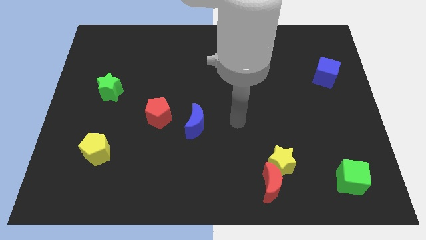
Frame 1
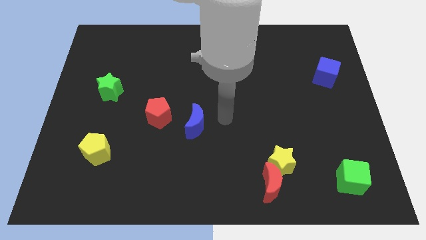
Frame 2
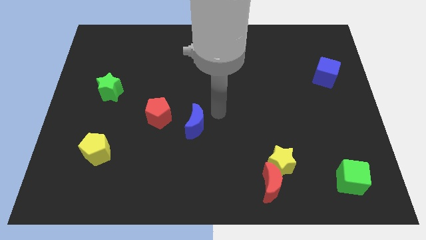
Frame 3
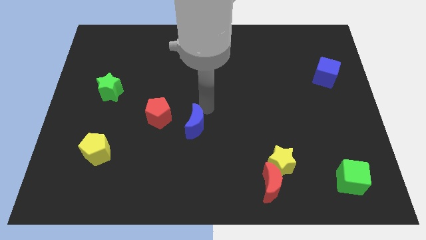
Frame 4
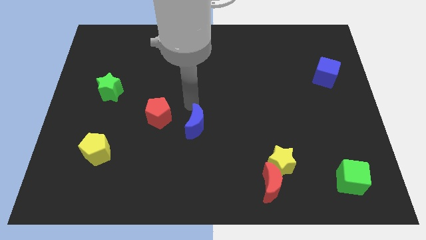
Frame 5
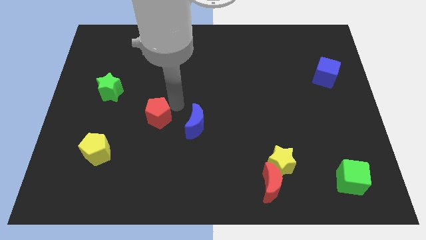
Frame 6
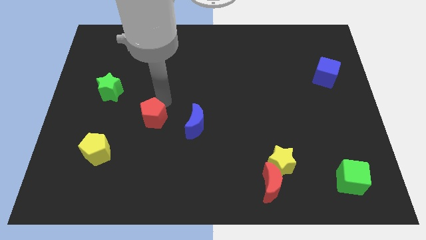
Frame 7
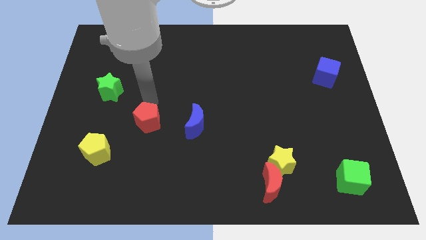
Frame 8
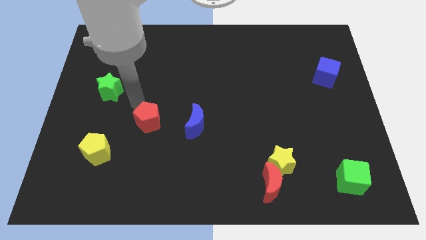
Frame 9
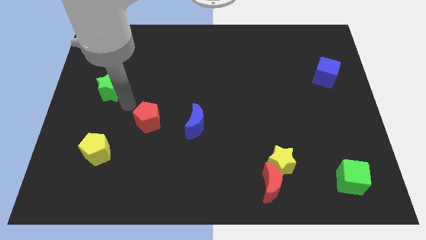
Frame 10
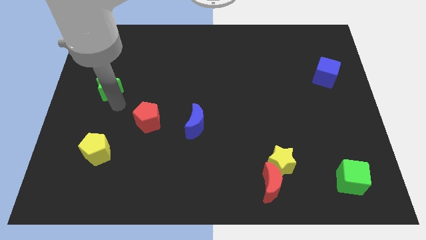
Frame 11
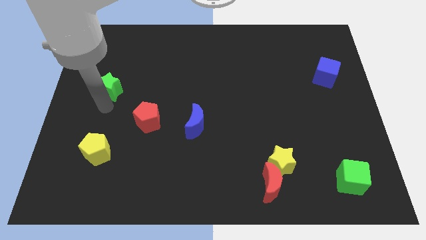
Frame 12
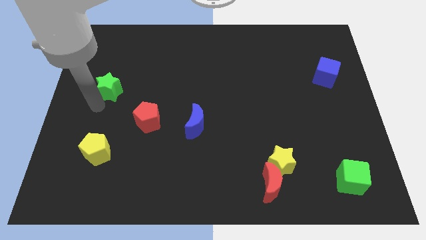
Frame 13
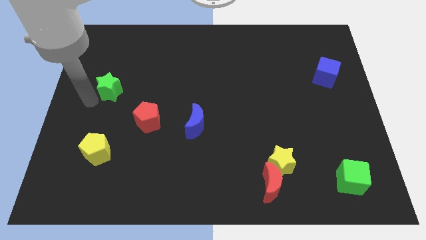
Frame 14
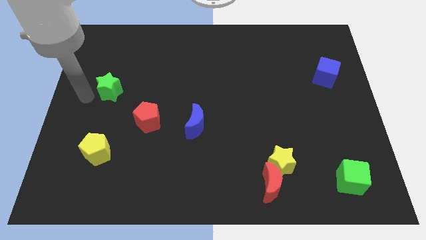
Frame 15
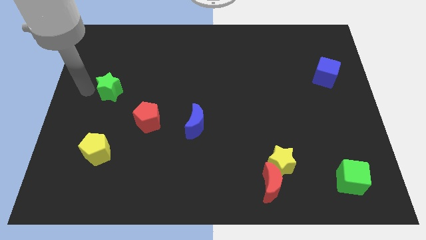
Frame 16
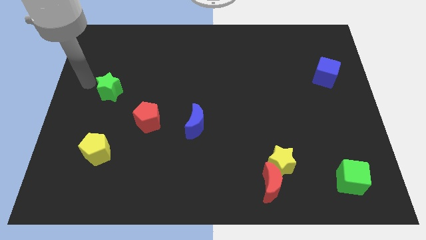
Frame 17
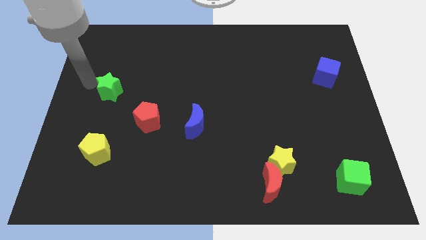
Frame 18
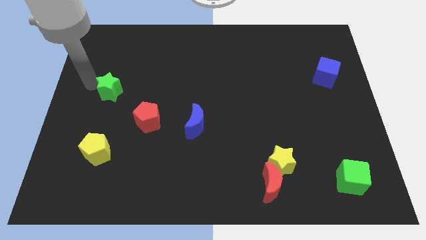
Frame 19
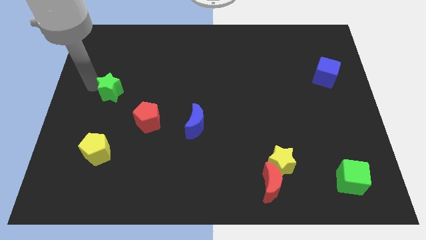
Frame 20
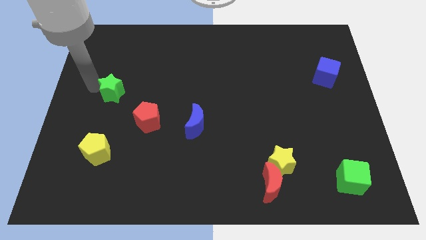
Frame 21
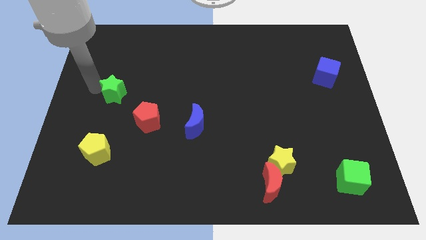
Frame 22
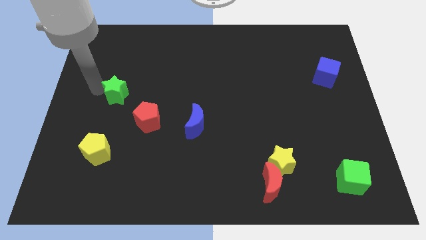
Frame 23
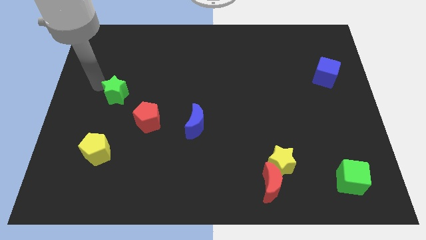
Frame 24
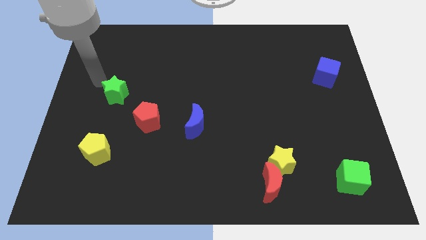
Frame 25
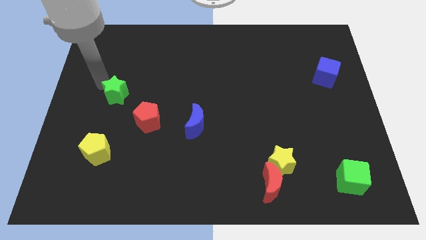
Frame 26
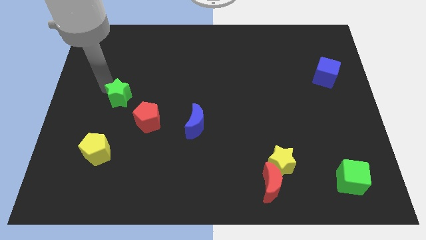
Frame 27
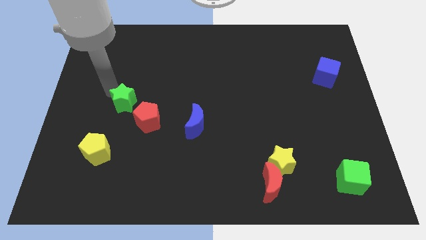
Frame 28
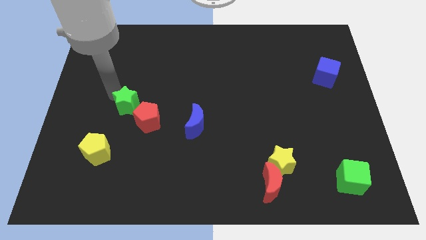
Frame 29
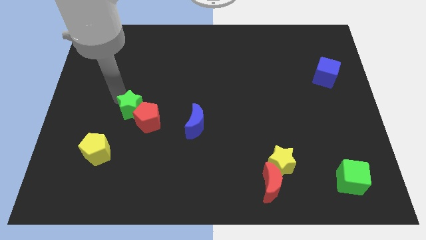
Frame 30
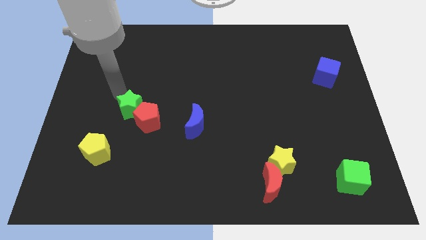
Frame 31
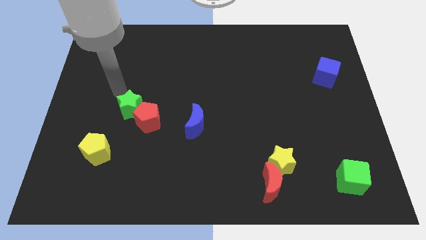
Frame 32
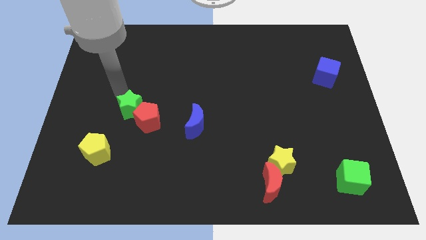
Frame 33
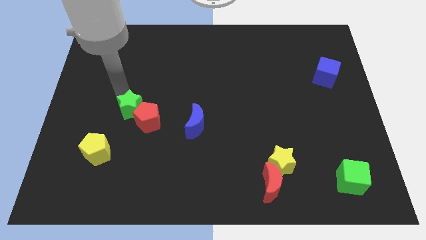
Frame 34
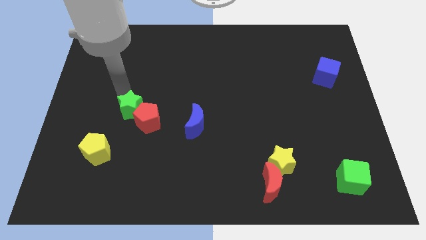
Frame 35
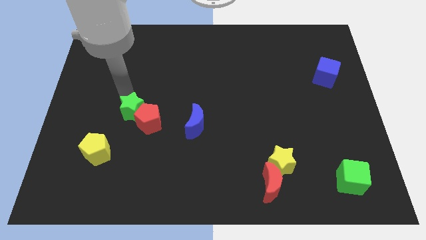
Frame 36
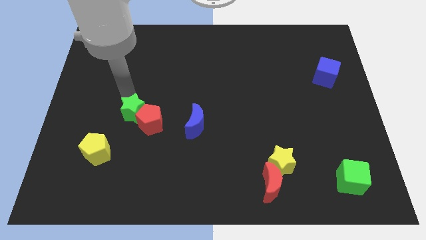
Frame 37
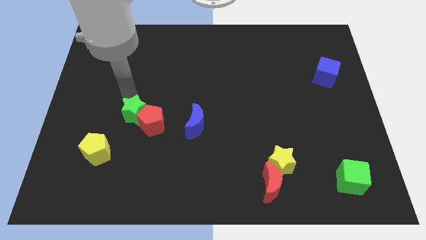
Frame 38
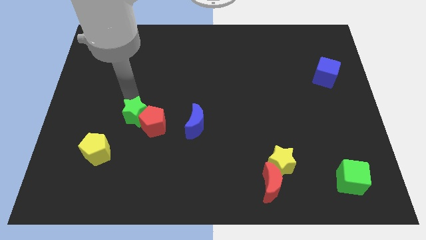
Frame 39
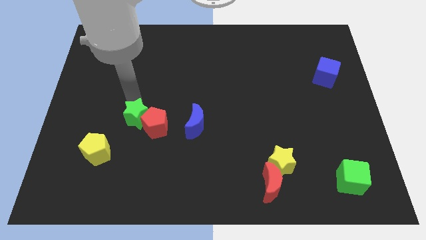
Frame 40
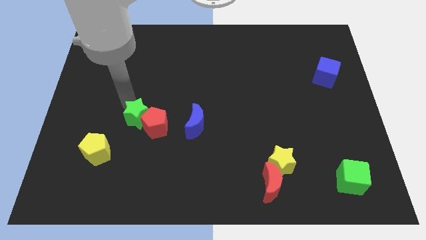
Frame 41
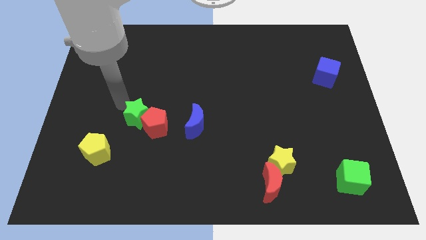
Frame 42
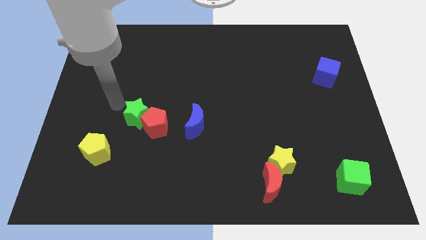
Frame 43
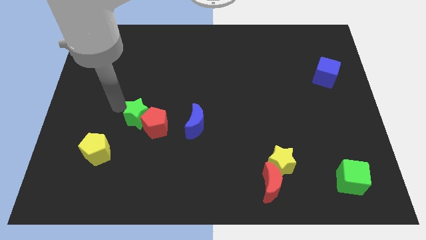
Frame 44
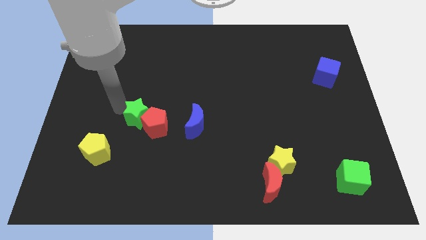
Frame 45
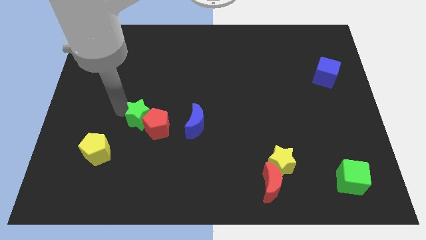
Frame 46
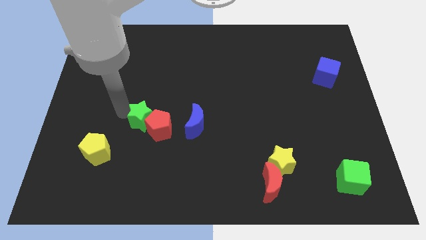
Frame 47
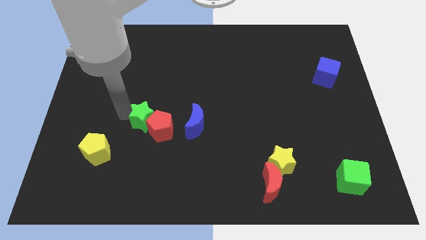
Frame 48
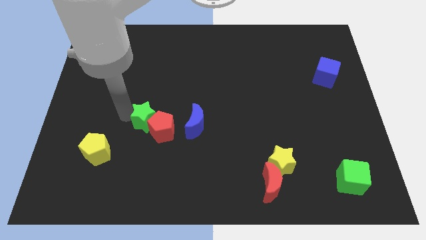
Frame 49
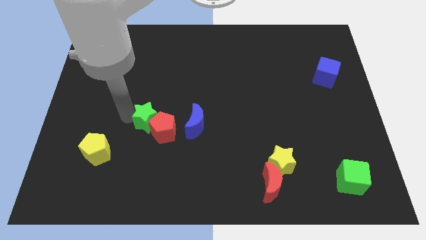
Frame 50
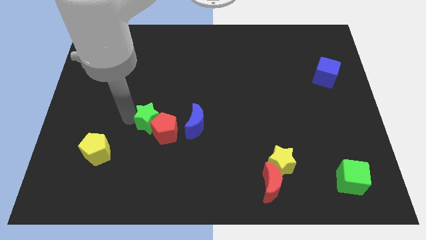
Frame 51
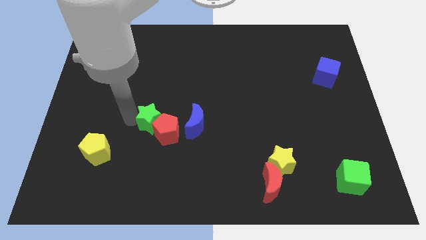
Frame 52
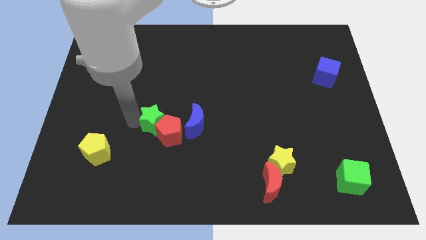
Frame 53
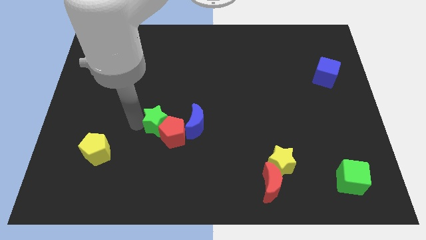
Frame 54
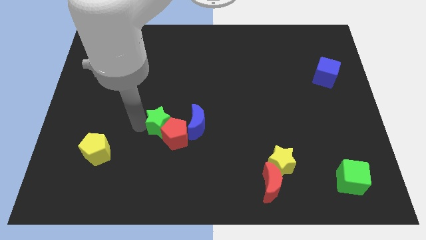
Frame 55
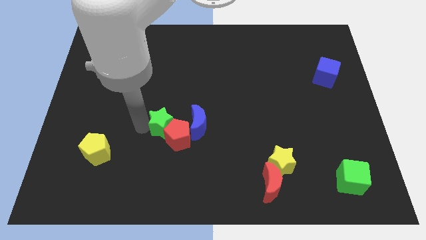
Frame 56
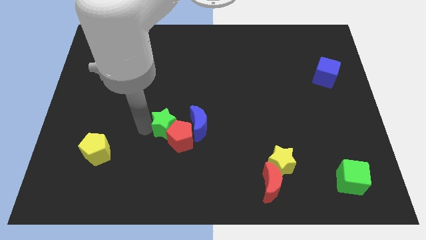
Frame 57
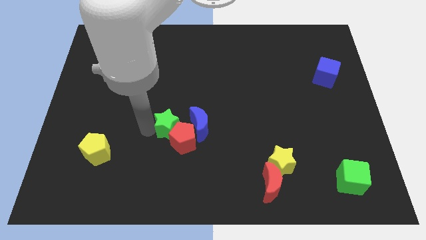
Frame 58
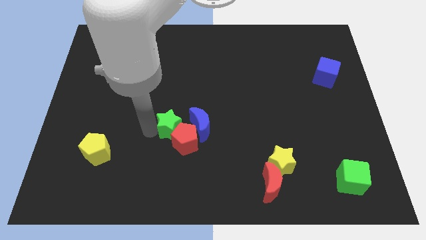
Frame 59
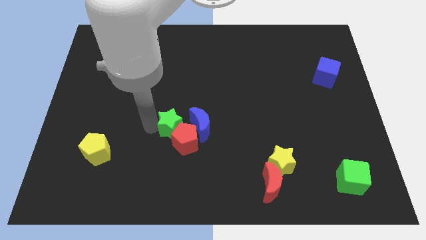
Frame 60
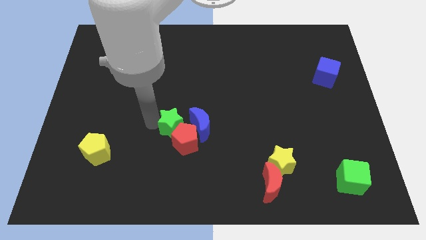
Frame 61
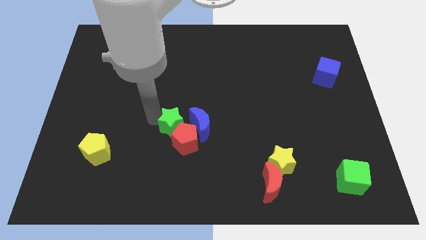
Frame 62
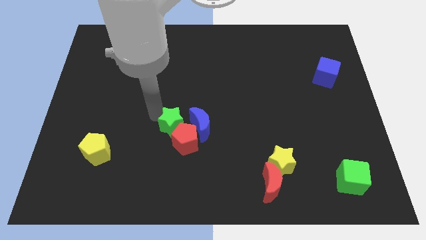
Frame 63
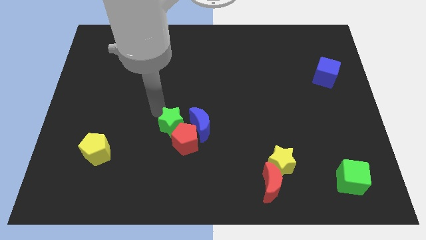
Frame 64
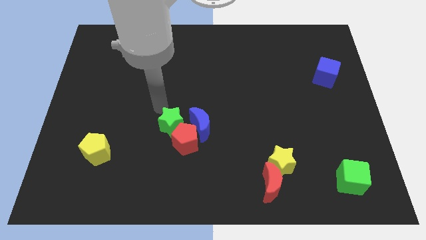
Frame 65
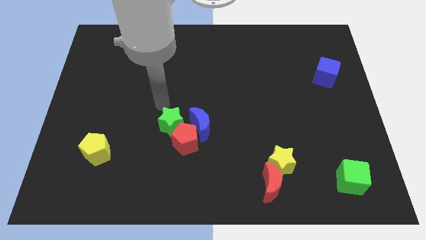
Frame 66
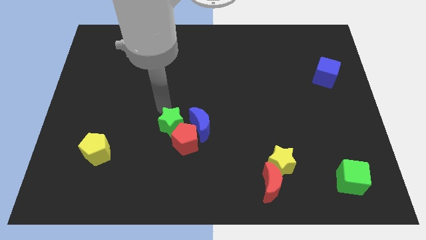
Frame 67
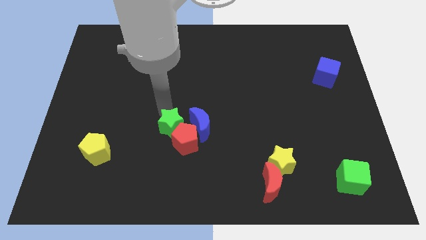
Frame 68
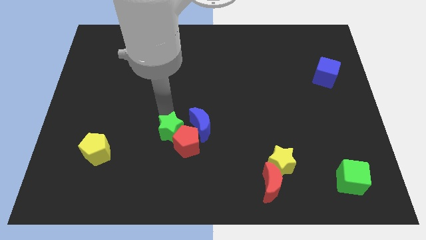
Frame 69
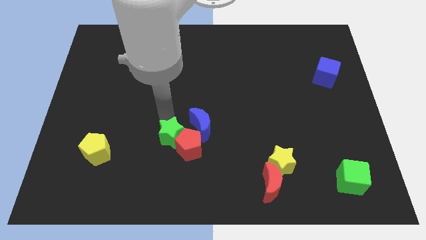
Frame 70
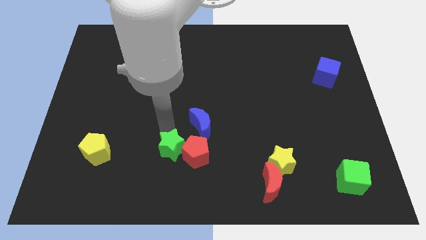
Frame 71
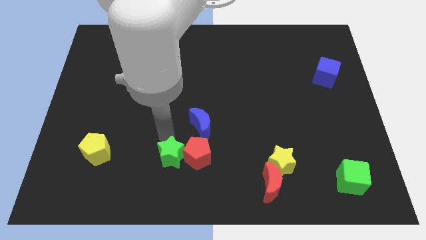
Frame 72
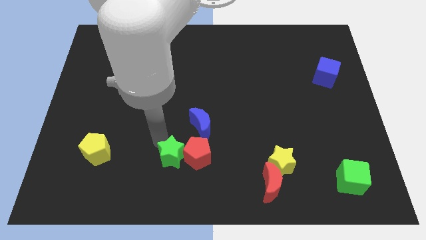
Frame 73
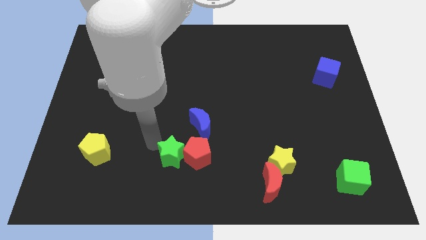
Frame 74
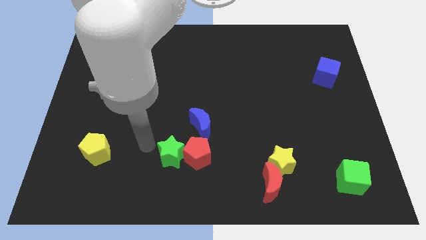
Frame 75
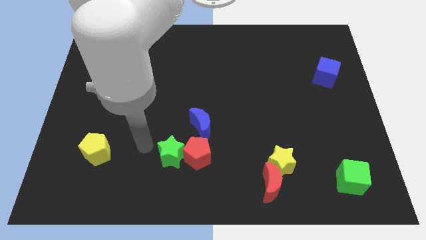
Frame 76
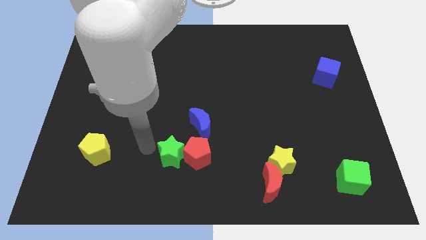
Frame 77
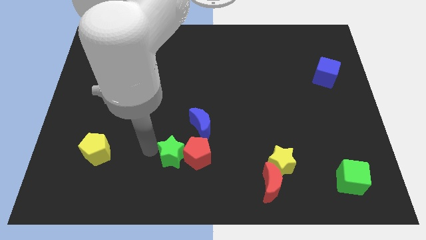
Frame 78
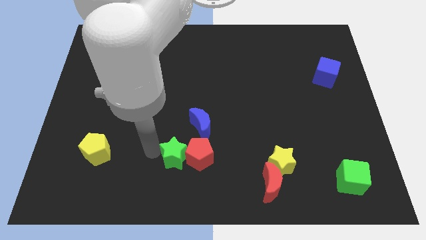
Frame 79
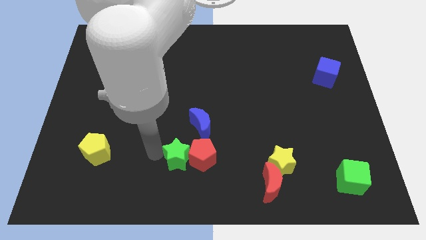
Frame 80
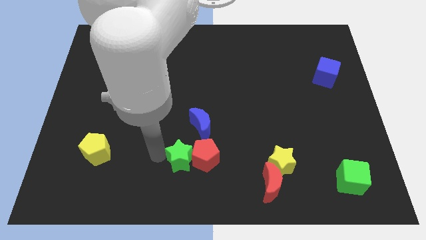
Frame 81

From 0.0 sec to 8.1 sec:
put the green star to the bottom side of the blue moon
